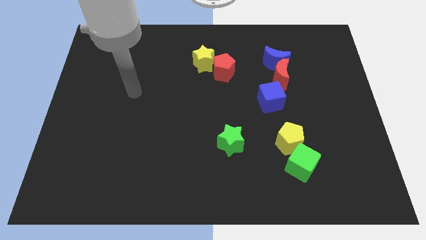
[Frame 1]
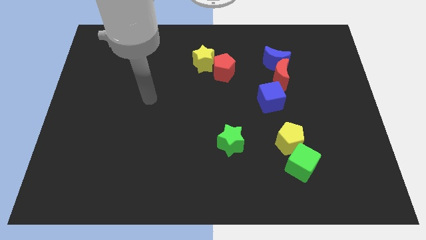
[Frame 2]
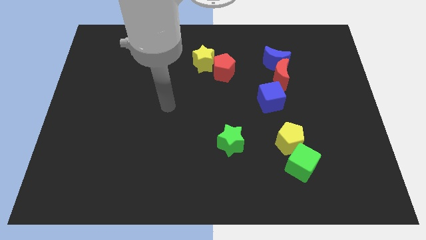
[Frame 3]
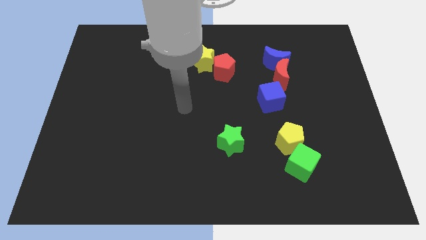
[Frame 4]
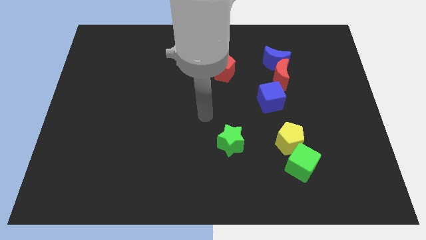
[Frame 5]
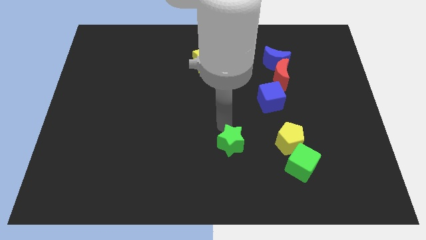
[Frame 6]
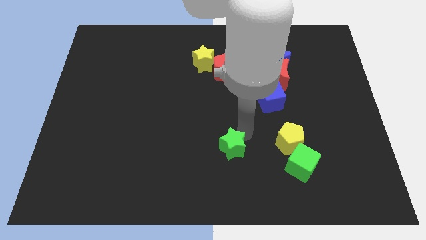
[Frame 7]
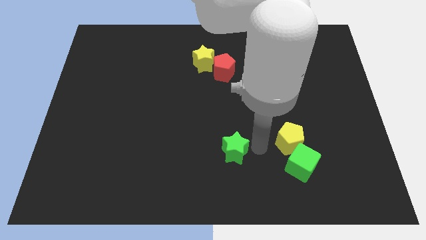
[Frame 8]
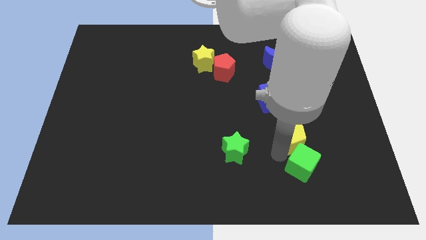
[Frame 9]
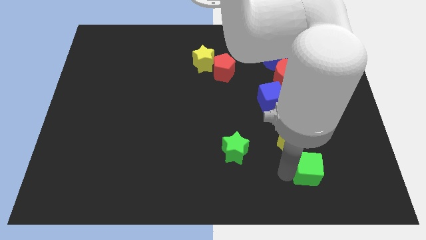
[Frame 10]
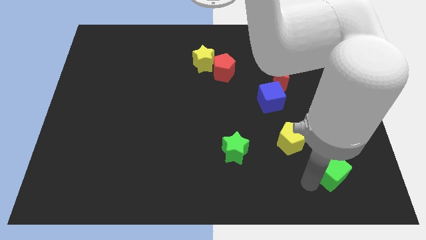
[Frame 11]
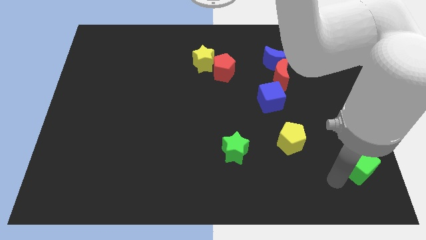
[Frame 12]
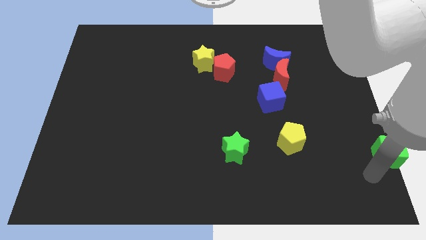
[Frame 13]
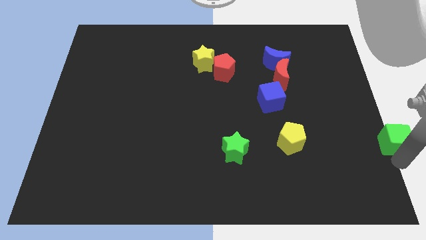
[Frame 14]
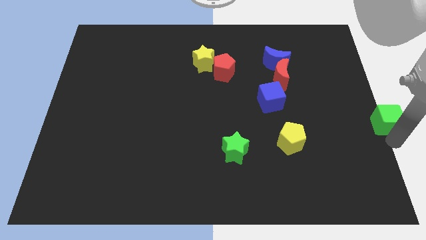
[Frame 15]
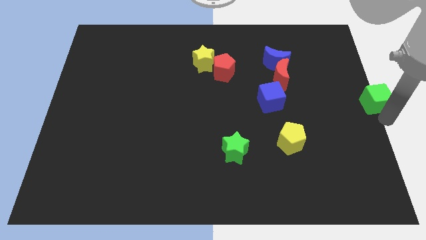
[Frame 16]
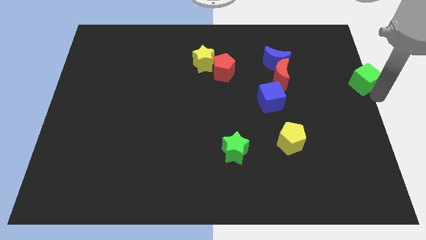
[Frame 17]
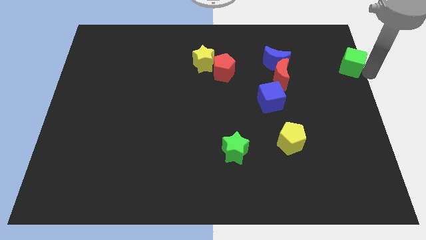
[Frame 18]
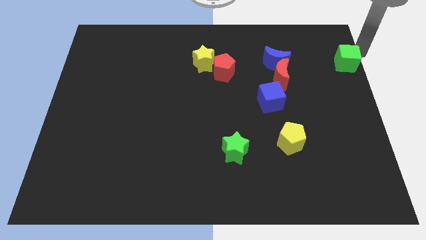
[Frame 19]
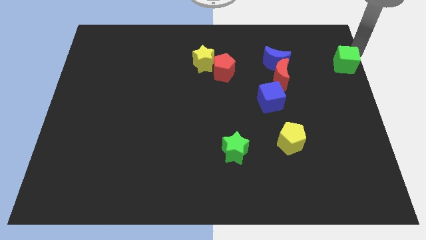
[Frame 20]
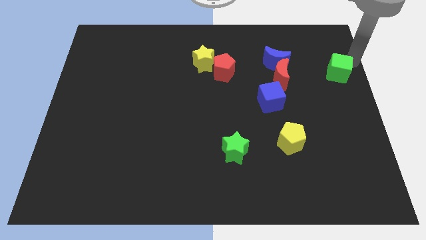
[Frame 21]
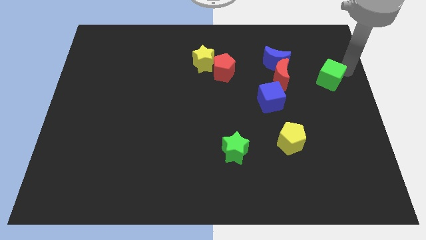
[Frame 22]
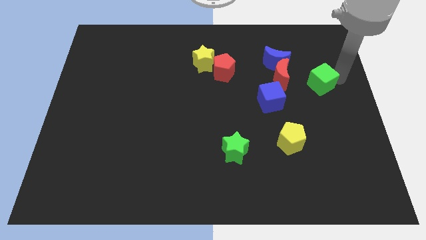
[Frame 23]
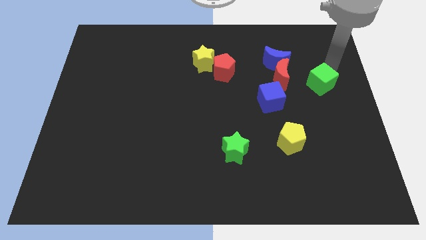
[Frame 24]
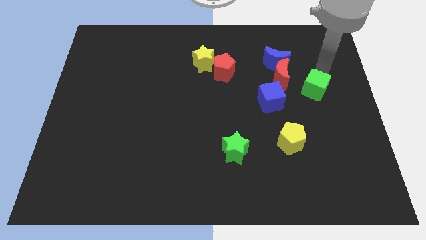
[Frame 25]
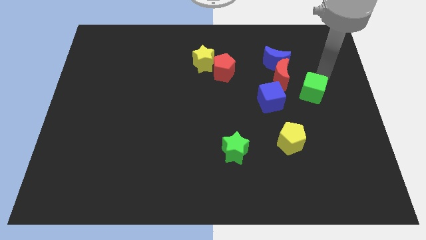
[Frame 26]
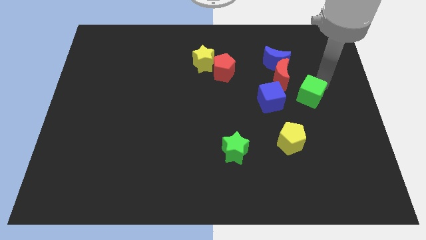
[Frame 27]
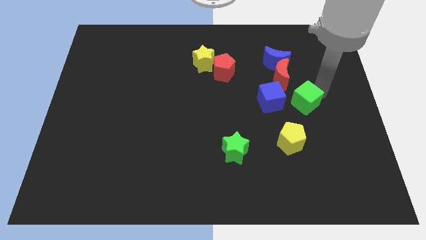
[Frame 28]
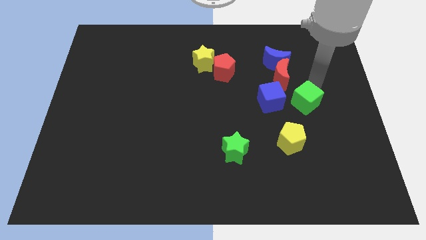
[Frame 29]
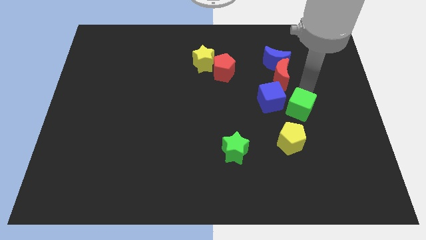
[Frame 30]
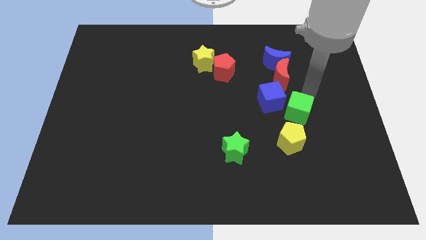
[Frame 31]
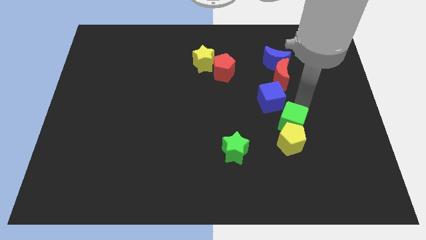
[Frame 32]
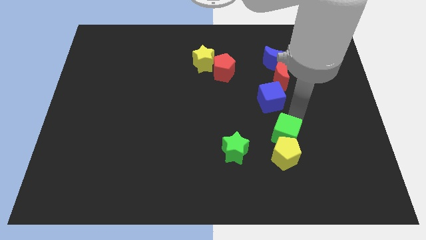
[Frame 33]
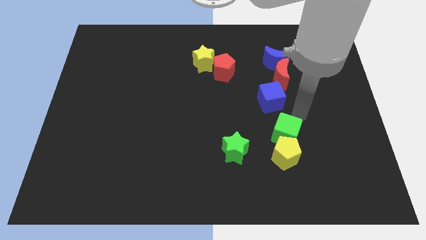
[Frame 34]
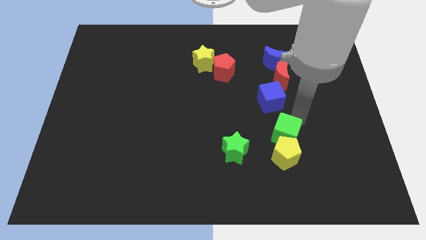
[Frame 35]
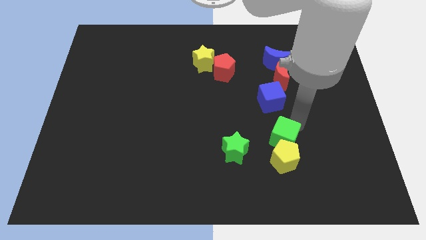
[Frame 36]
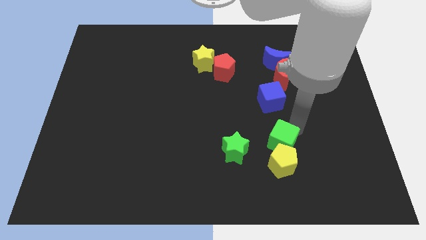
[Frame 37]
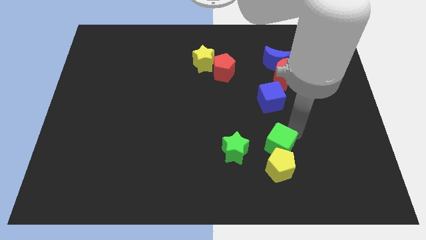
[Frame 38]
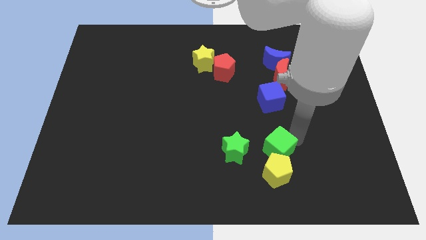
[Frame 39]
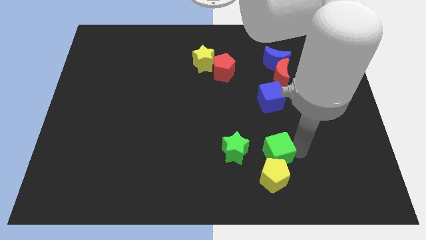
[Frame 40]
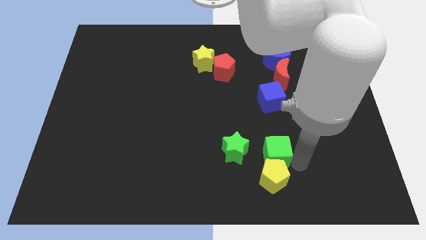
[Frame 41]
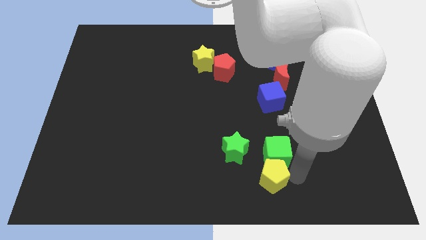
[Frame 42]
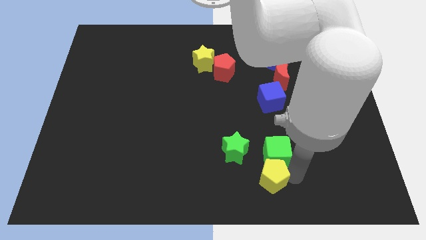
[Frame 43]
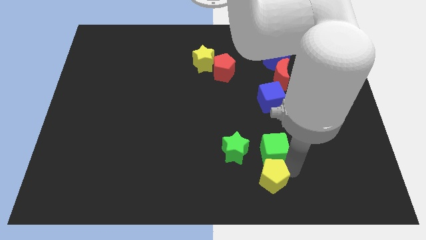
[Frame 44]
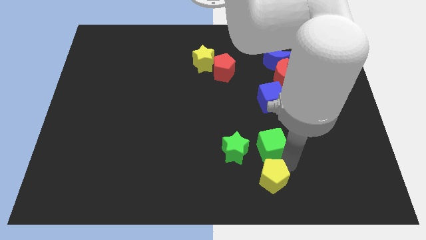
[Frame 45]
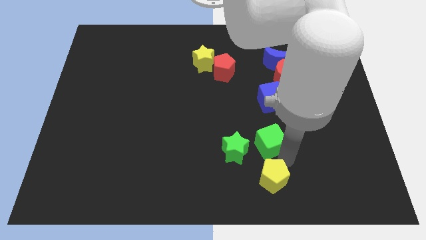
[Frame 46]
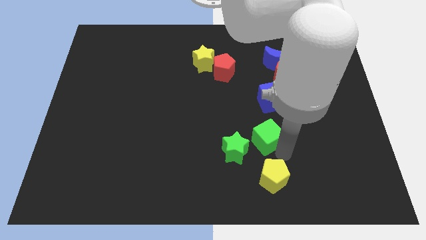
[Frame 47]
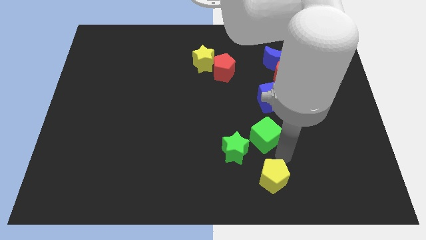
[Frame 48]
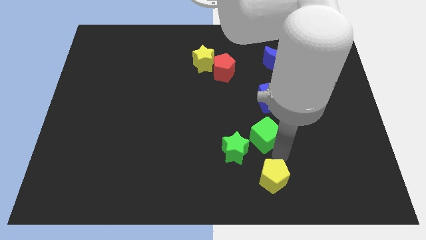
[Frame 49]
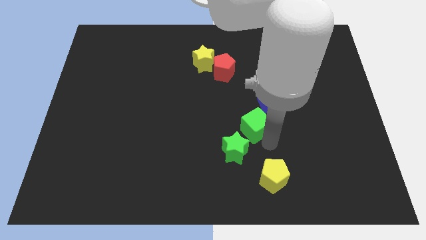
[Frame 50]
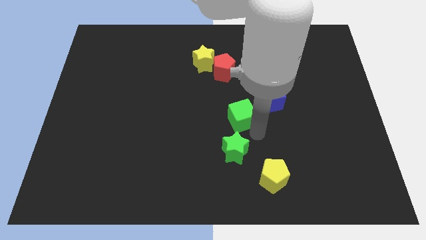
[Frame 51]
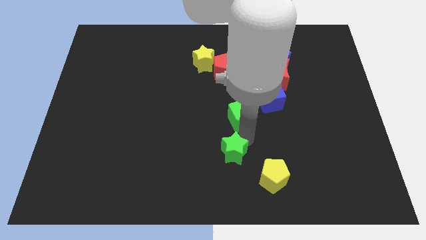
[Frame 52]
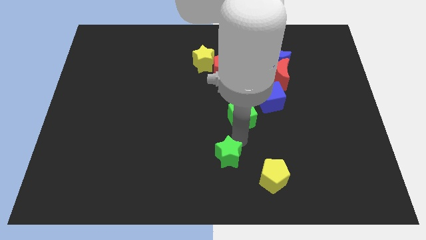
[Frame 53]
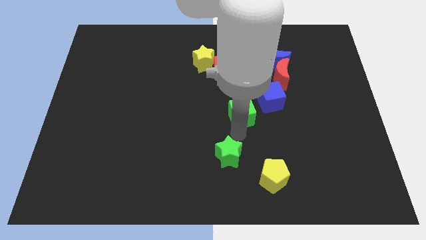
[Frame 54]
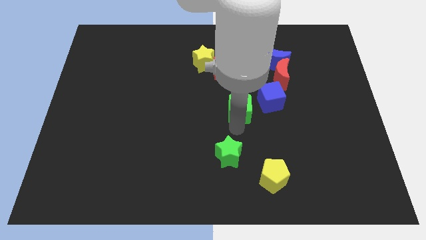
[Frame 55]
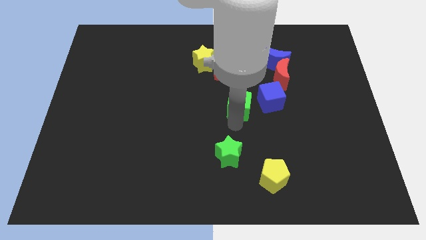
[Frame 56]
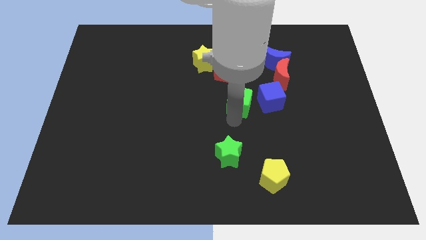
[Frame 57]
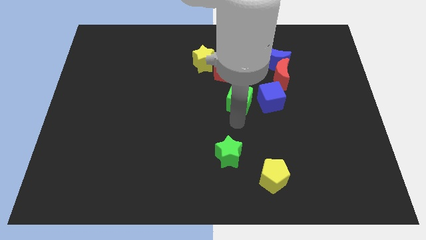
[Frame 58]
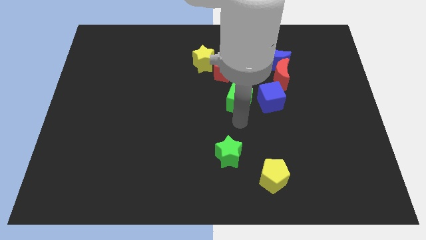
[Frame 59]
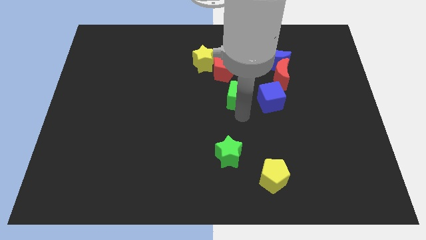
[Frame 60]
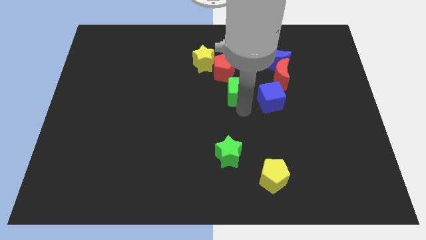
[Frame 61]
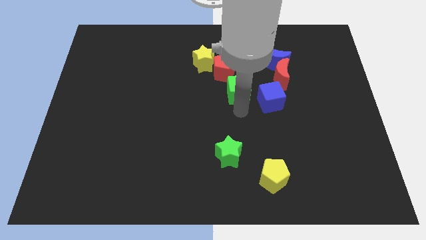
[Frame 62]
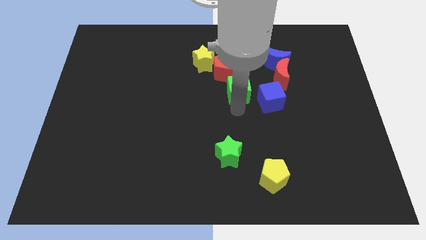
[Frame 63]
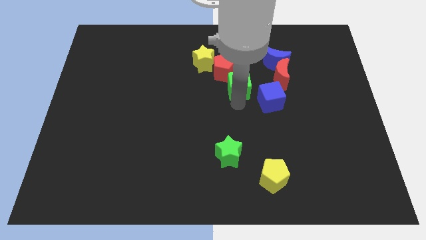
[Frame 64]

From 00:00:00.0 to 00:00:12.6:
push the green cube to the left side of the red moon
